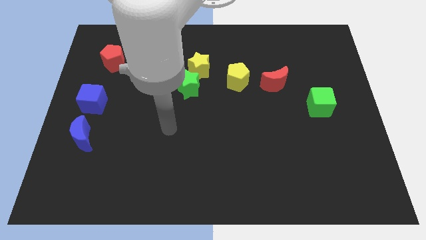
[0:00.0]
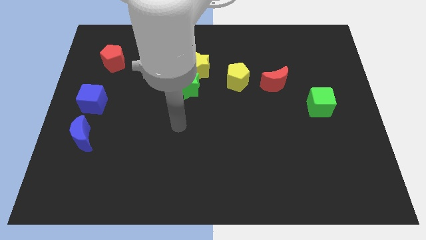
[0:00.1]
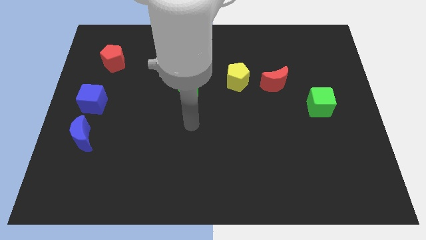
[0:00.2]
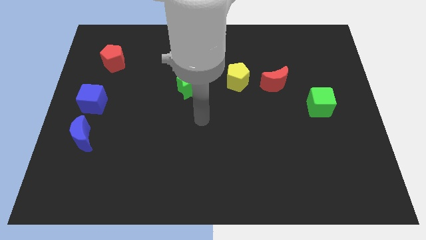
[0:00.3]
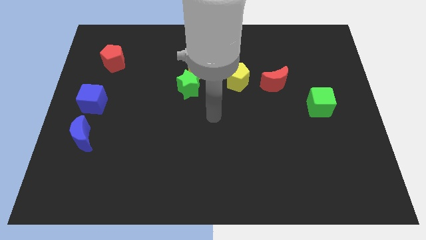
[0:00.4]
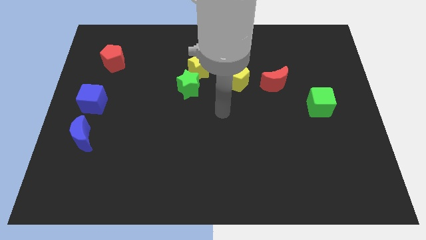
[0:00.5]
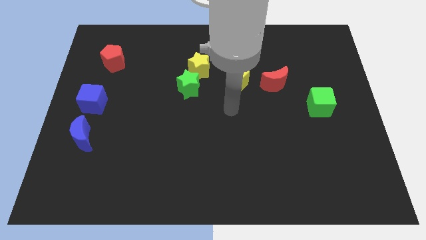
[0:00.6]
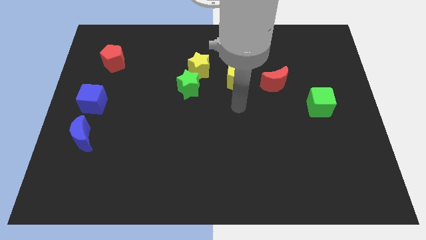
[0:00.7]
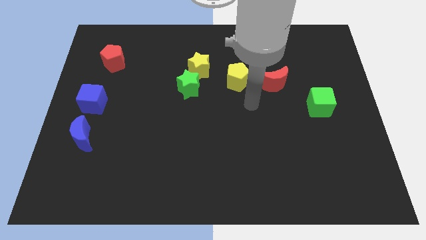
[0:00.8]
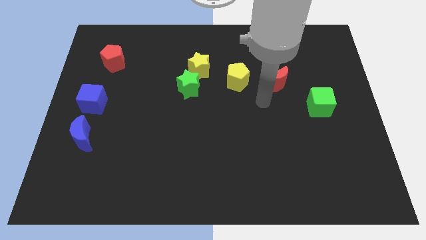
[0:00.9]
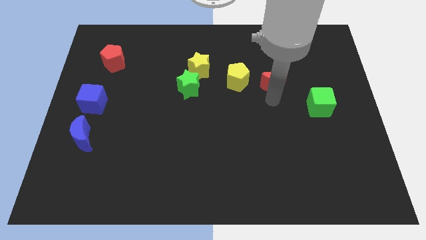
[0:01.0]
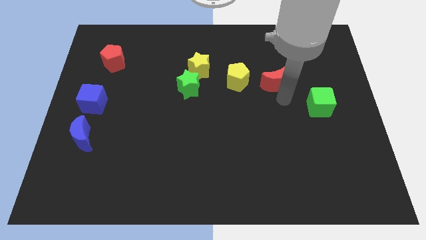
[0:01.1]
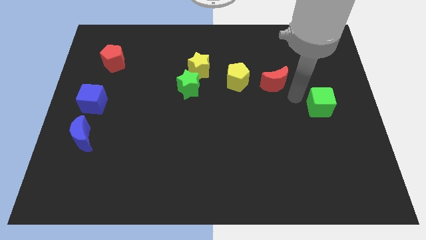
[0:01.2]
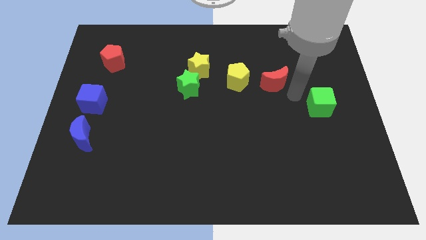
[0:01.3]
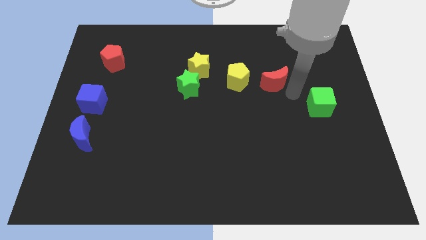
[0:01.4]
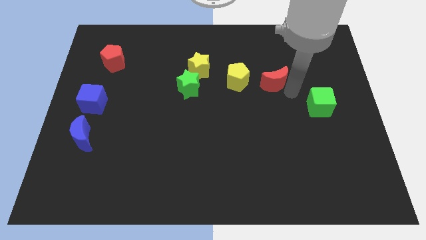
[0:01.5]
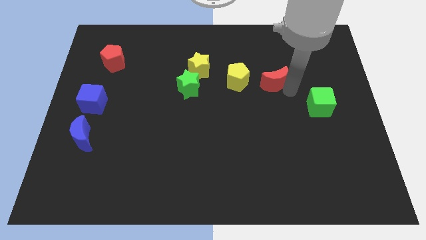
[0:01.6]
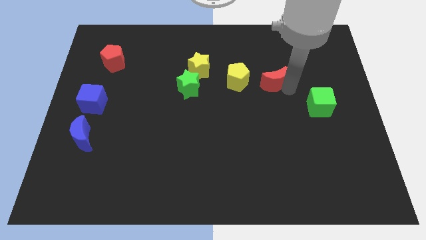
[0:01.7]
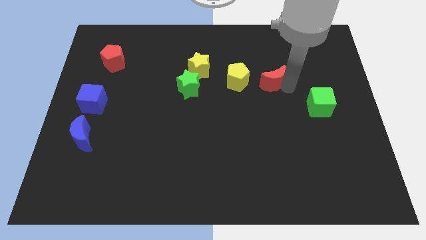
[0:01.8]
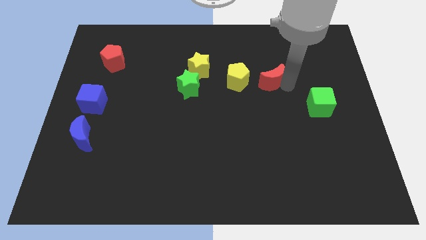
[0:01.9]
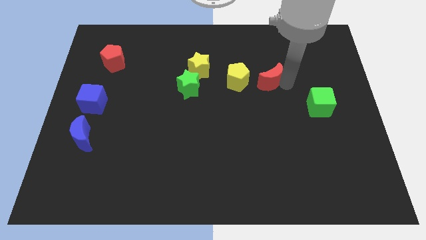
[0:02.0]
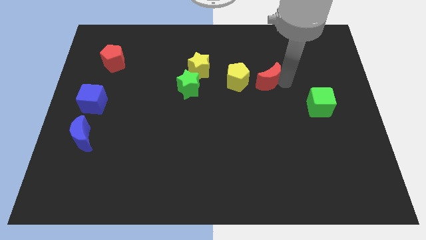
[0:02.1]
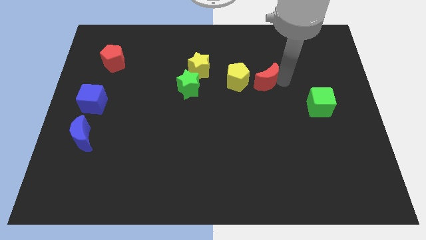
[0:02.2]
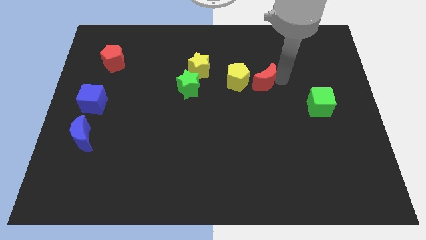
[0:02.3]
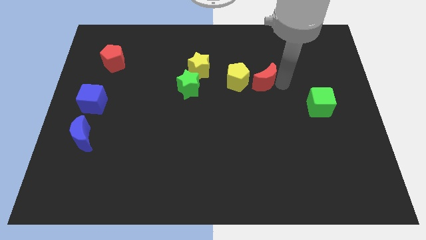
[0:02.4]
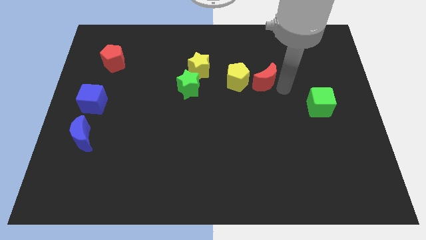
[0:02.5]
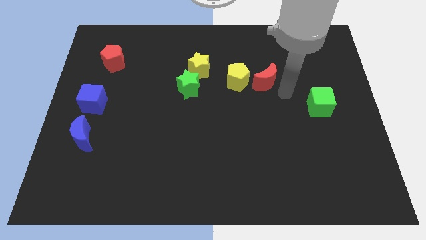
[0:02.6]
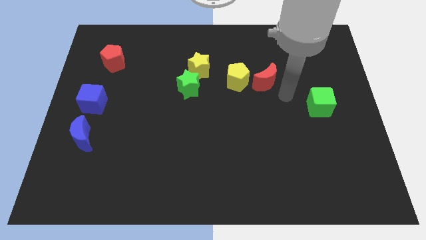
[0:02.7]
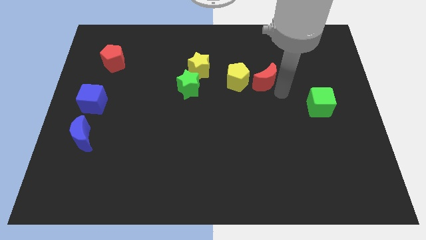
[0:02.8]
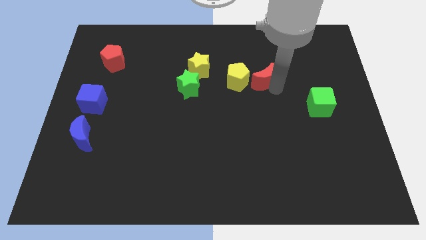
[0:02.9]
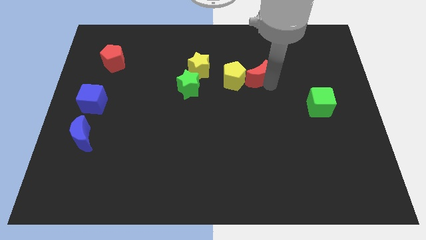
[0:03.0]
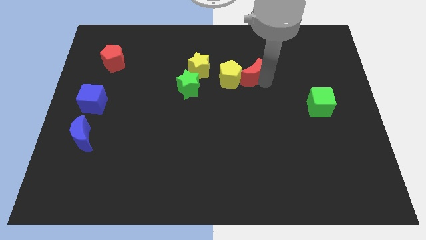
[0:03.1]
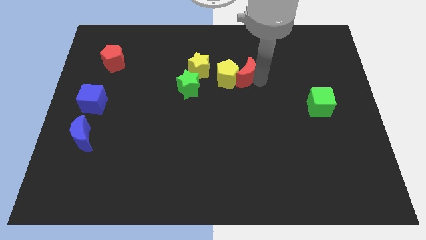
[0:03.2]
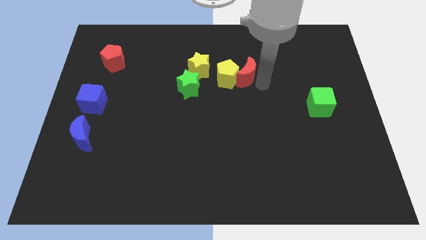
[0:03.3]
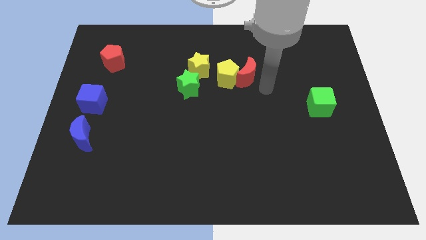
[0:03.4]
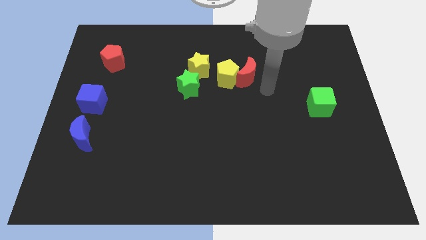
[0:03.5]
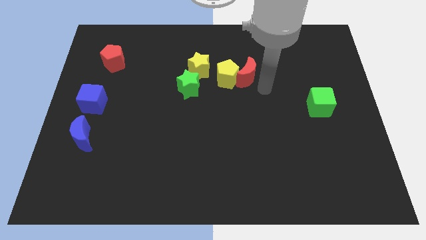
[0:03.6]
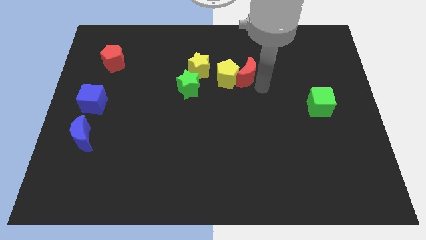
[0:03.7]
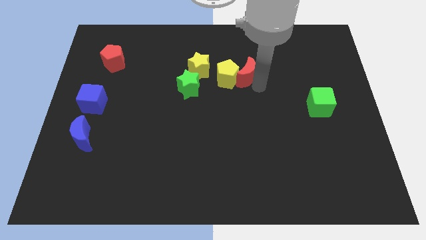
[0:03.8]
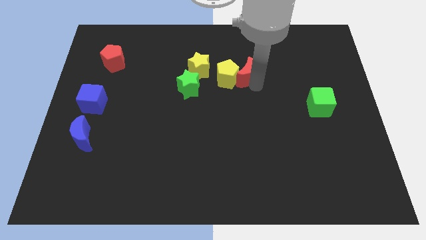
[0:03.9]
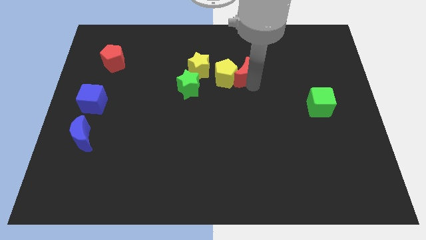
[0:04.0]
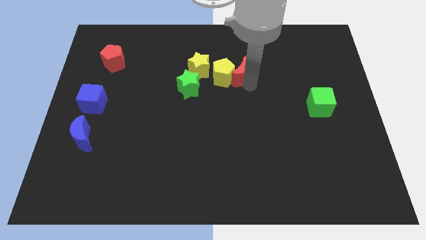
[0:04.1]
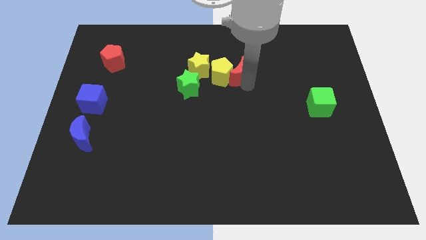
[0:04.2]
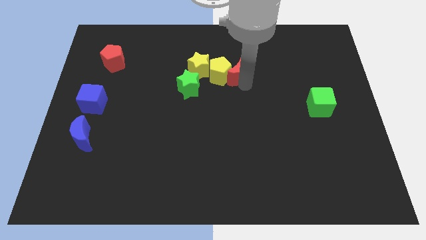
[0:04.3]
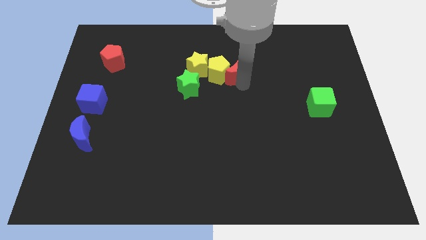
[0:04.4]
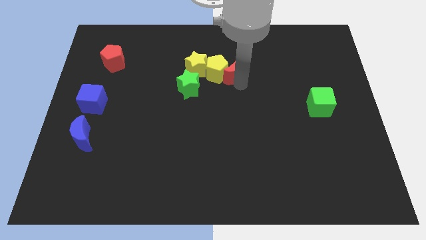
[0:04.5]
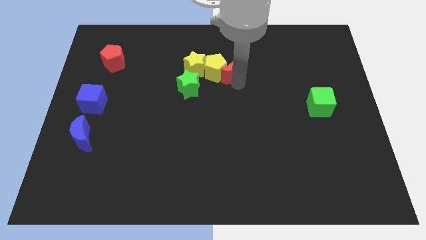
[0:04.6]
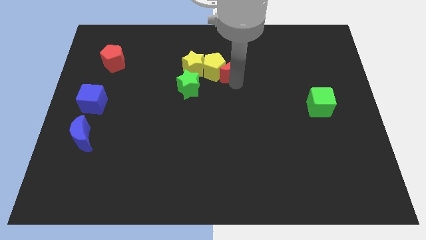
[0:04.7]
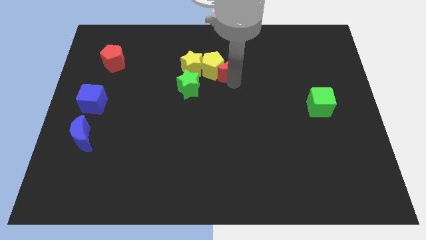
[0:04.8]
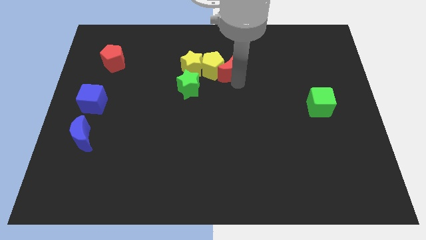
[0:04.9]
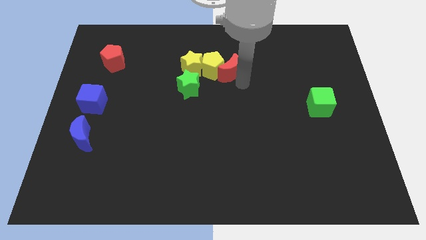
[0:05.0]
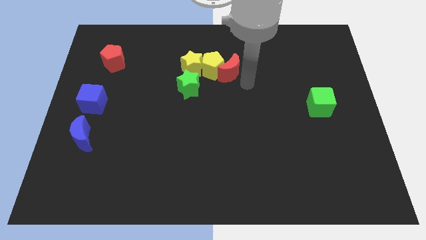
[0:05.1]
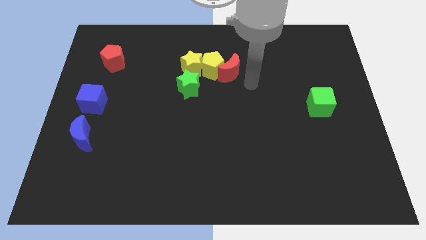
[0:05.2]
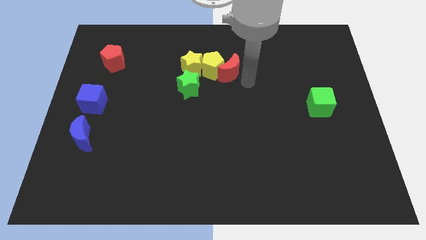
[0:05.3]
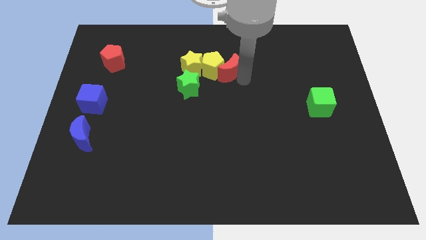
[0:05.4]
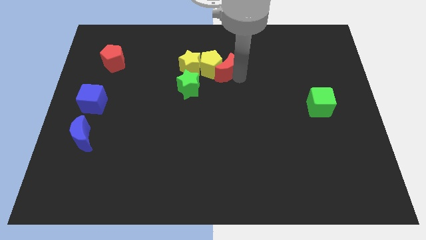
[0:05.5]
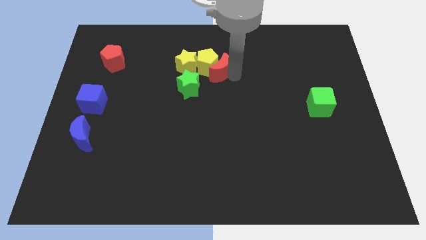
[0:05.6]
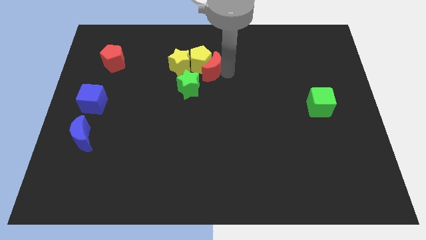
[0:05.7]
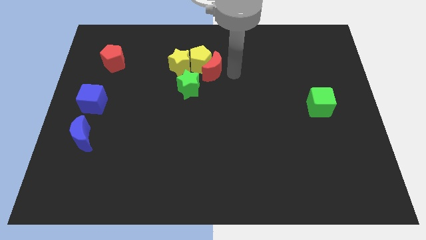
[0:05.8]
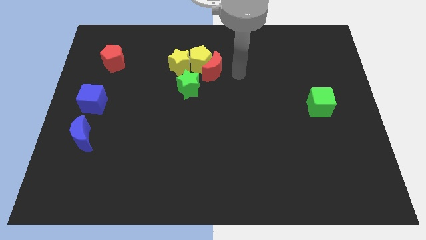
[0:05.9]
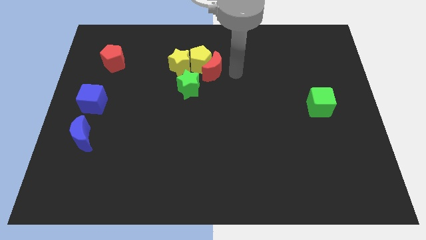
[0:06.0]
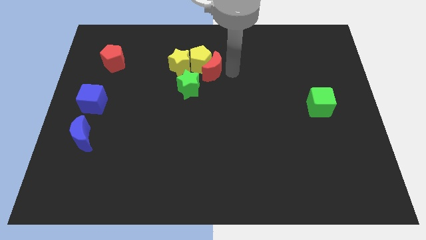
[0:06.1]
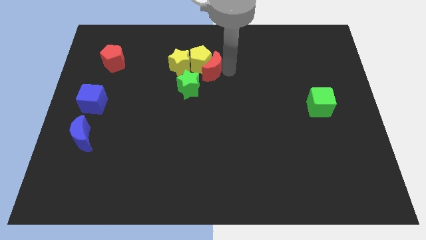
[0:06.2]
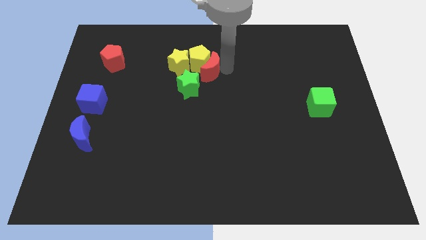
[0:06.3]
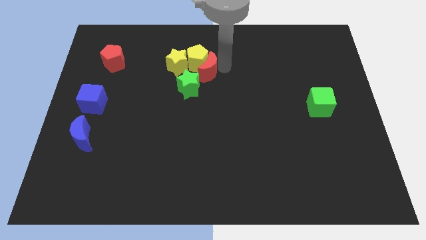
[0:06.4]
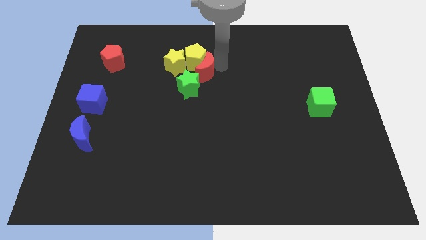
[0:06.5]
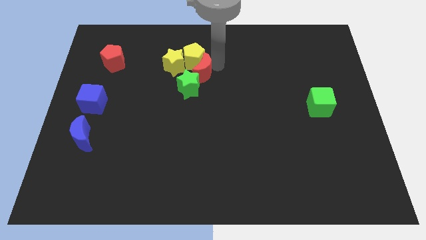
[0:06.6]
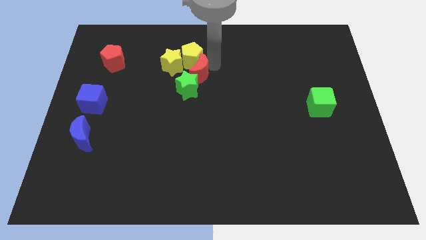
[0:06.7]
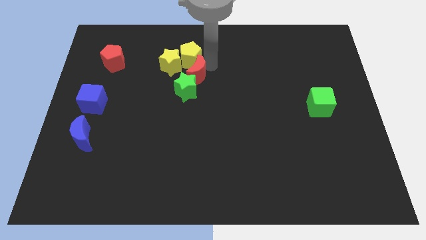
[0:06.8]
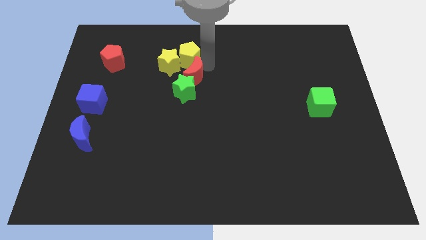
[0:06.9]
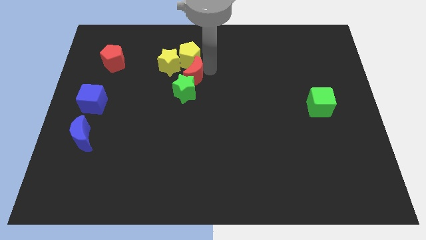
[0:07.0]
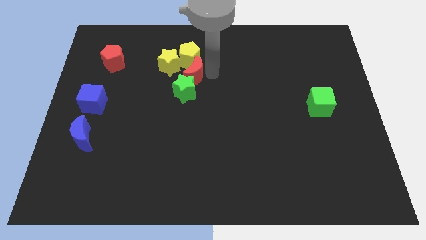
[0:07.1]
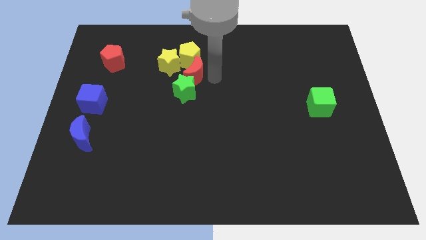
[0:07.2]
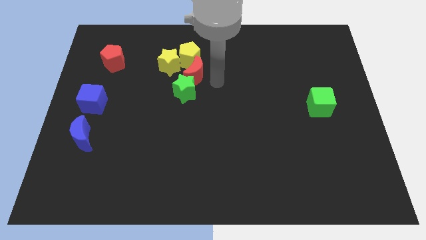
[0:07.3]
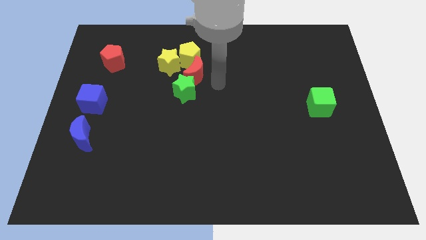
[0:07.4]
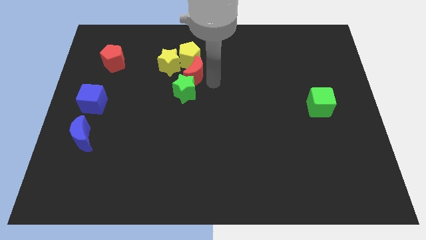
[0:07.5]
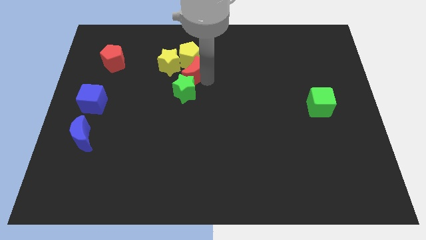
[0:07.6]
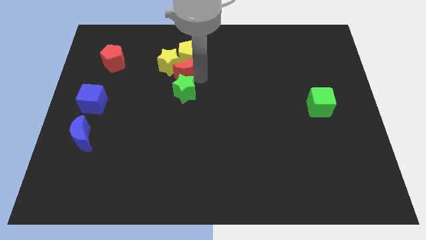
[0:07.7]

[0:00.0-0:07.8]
move the red moon to the yellow star
